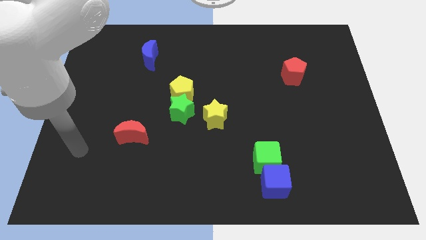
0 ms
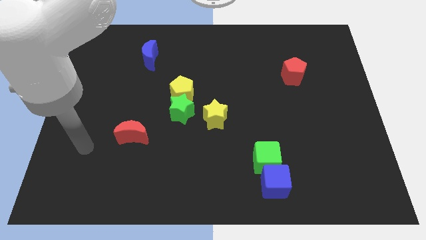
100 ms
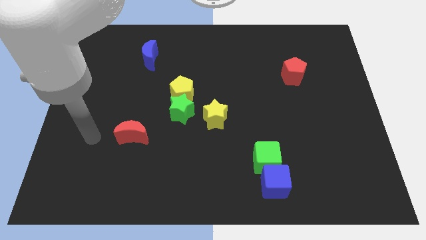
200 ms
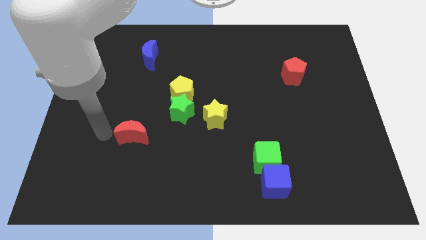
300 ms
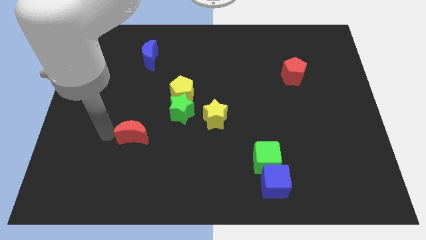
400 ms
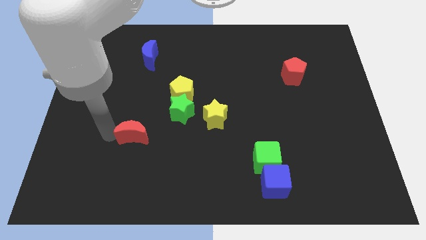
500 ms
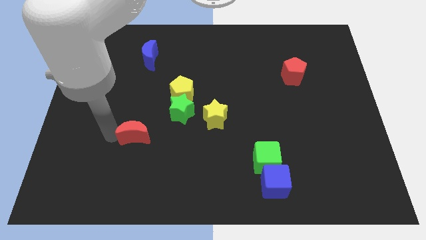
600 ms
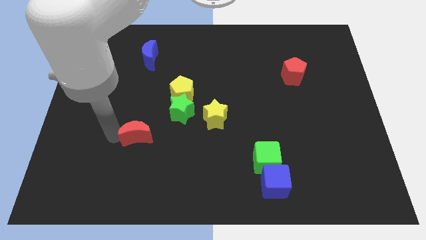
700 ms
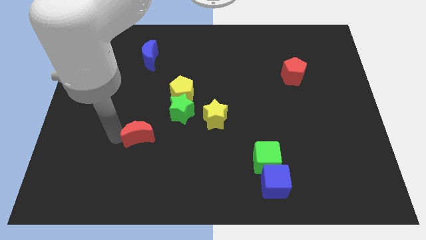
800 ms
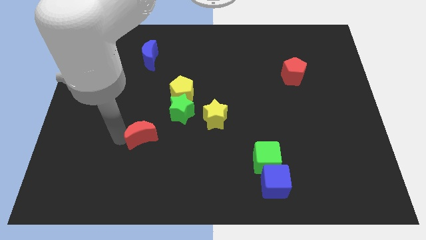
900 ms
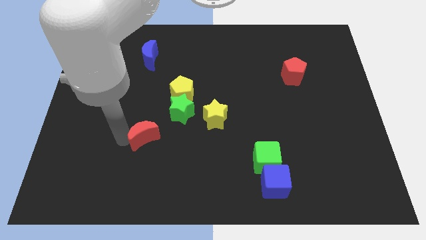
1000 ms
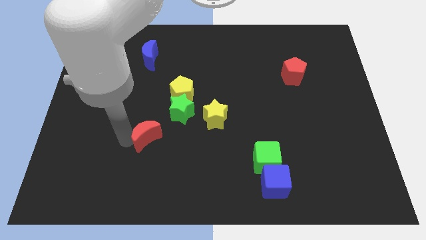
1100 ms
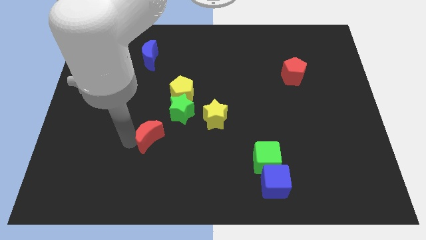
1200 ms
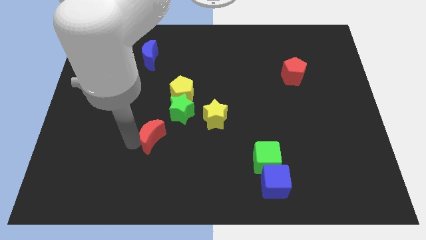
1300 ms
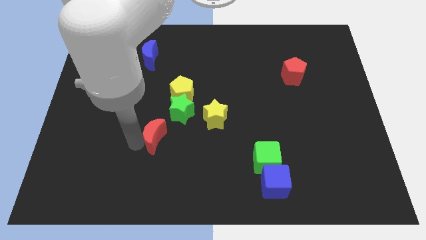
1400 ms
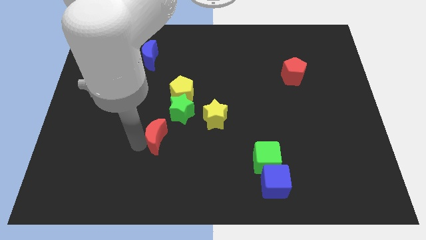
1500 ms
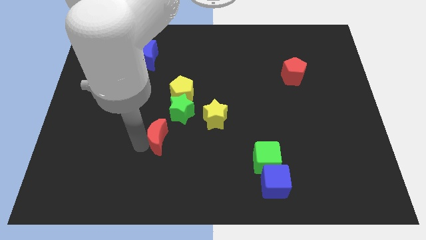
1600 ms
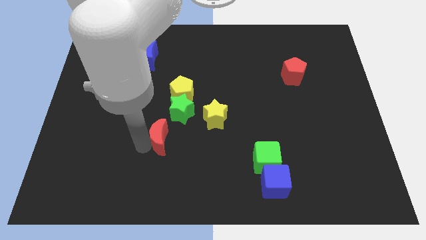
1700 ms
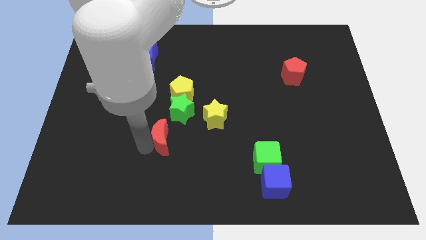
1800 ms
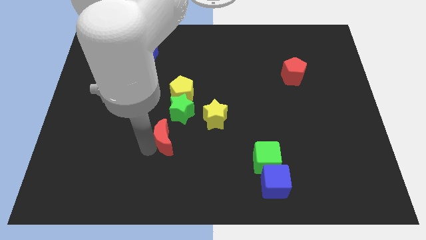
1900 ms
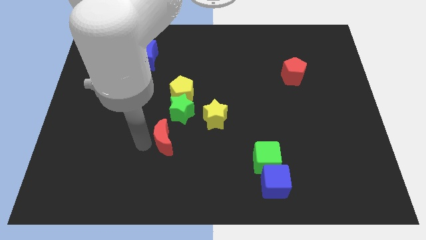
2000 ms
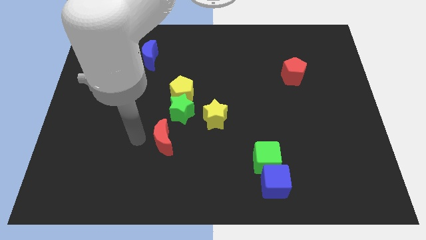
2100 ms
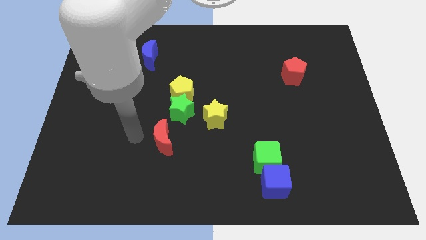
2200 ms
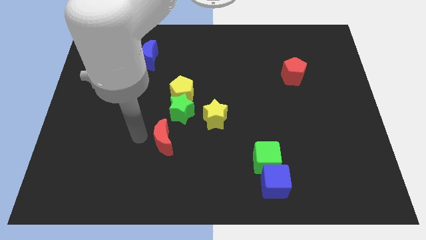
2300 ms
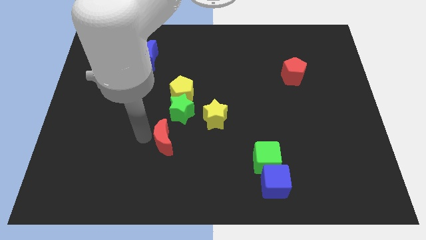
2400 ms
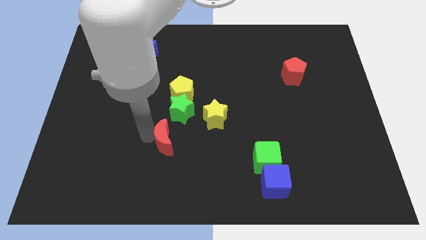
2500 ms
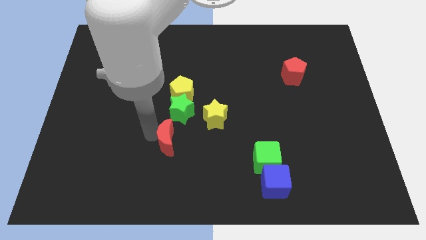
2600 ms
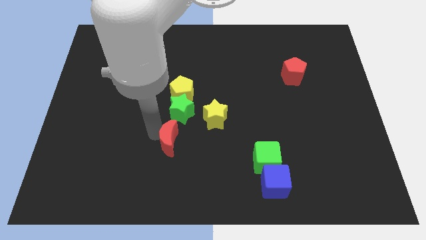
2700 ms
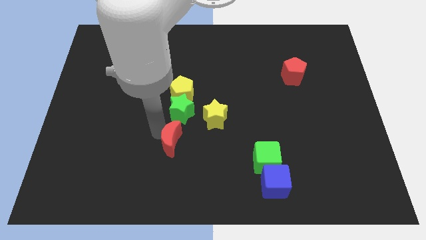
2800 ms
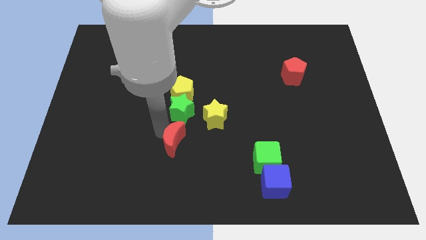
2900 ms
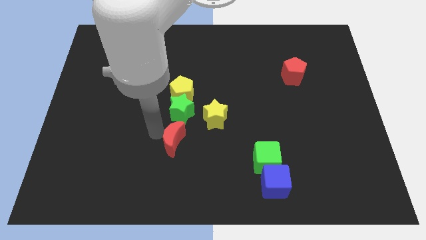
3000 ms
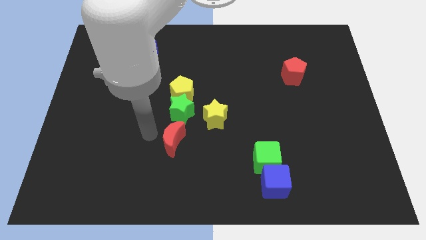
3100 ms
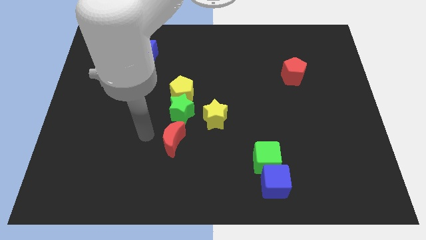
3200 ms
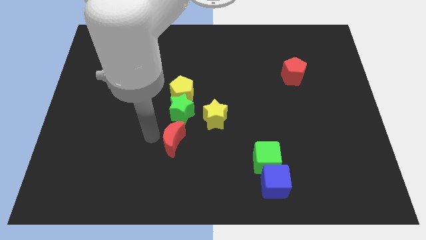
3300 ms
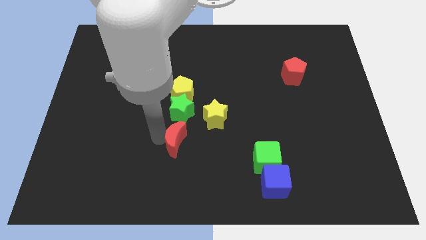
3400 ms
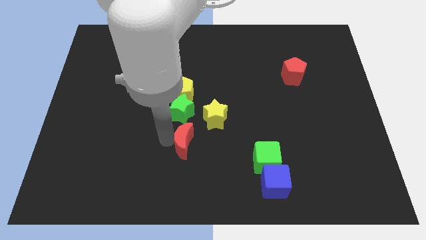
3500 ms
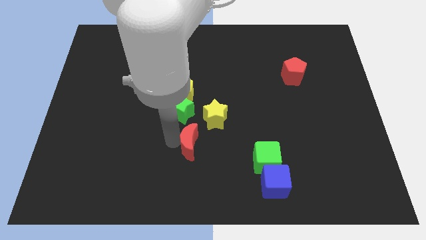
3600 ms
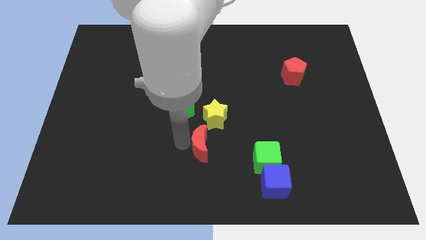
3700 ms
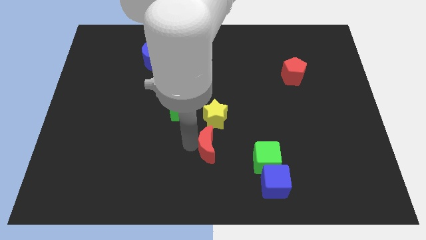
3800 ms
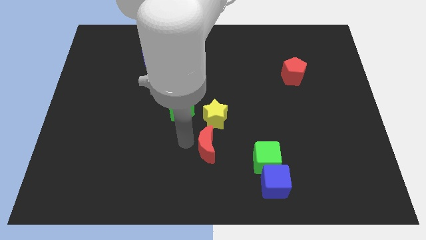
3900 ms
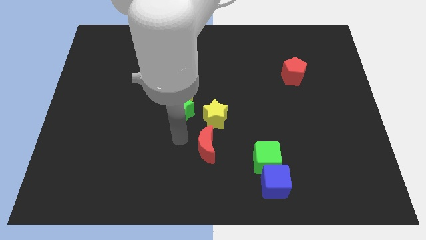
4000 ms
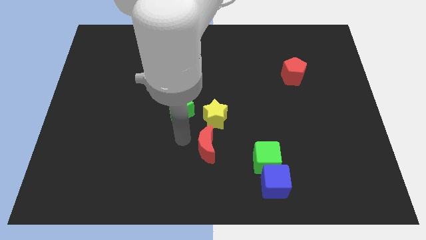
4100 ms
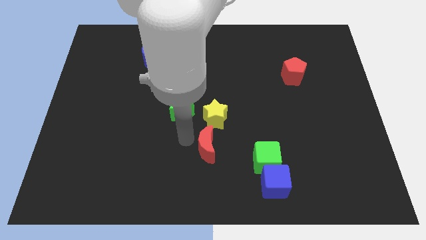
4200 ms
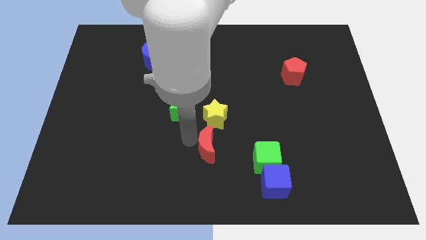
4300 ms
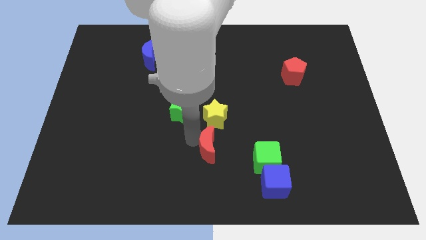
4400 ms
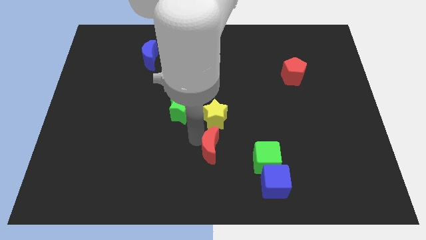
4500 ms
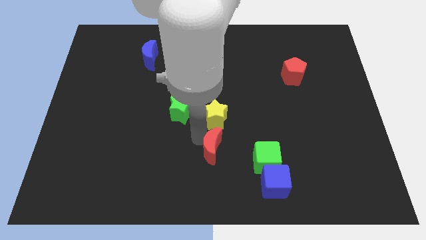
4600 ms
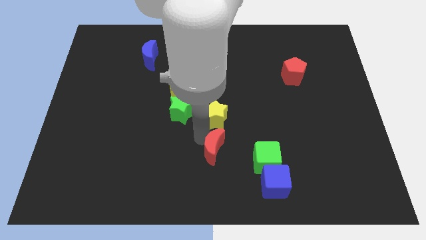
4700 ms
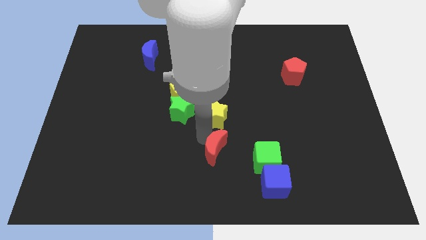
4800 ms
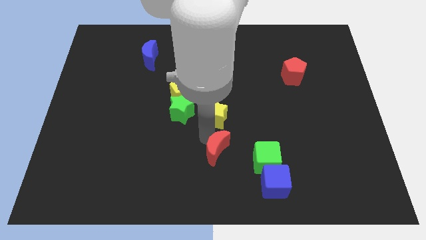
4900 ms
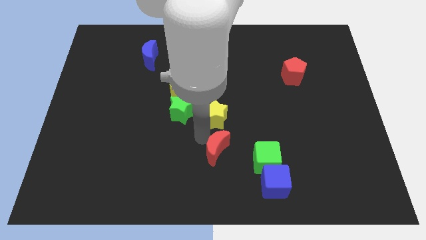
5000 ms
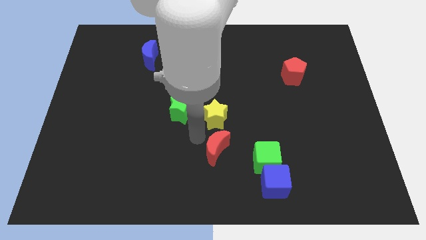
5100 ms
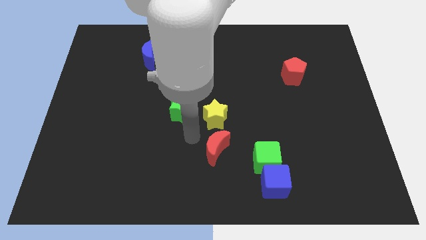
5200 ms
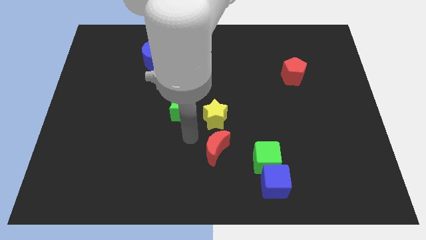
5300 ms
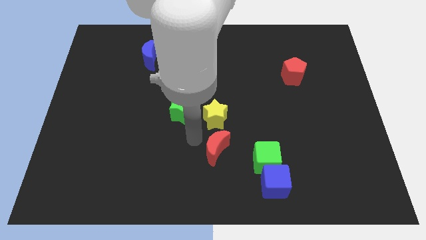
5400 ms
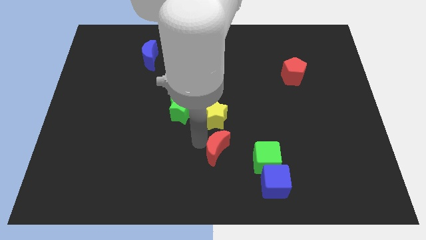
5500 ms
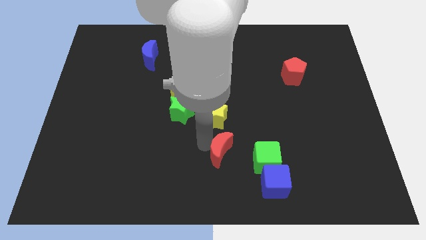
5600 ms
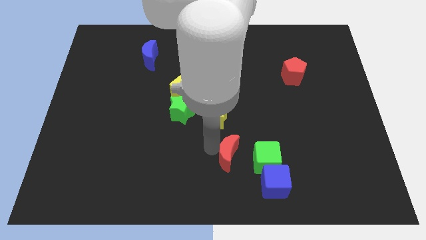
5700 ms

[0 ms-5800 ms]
slide the red moon diagonally up and to the left of the blue cube

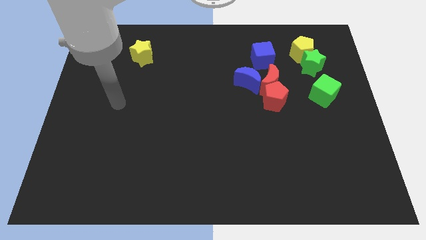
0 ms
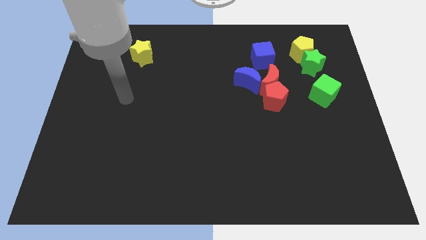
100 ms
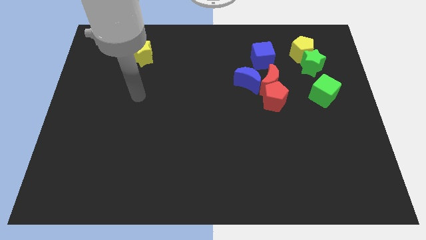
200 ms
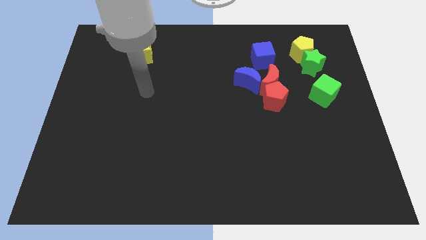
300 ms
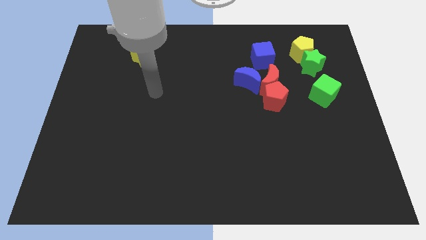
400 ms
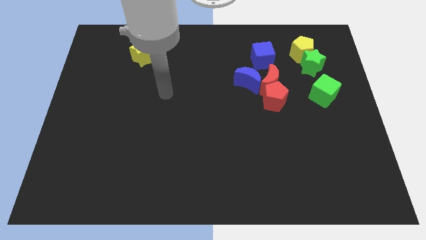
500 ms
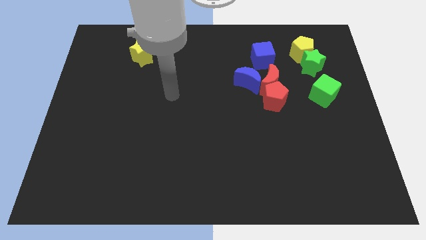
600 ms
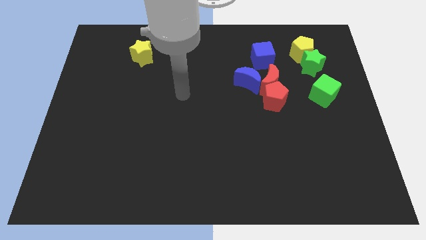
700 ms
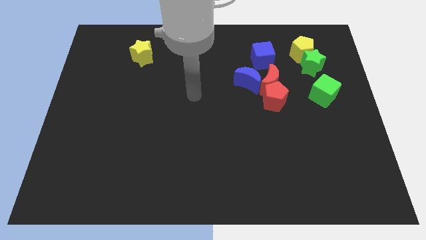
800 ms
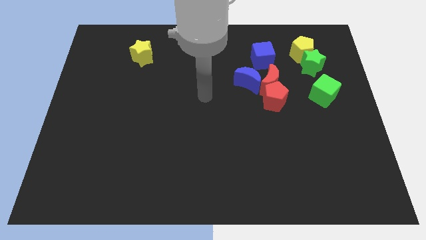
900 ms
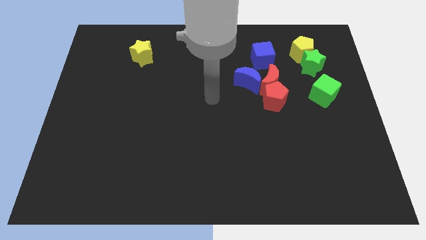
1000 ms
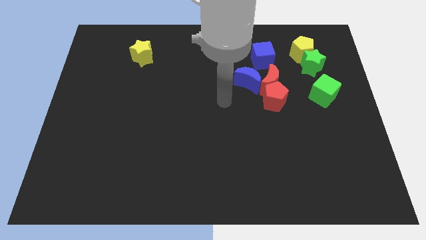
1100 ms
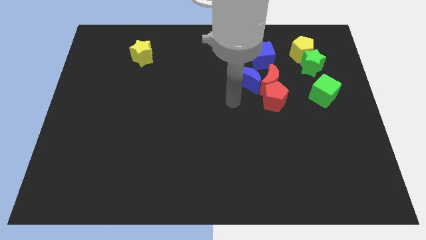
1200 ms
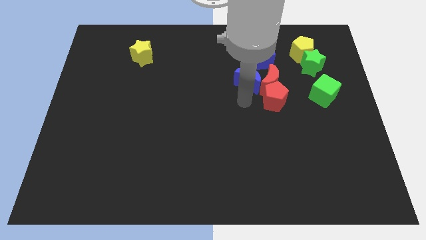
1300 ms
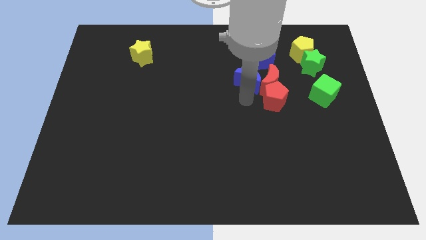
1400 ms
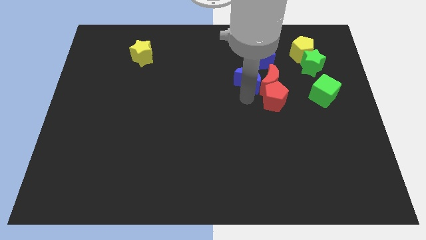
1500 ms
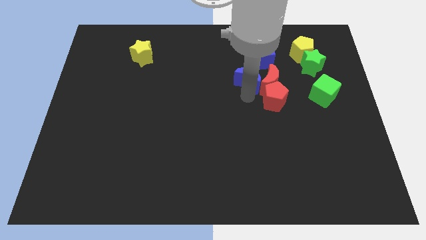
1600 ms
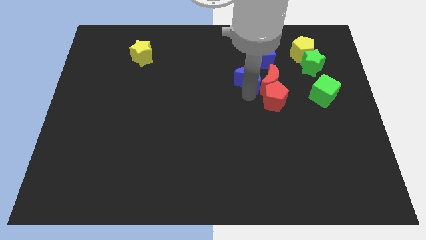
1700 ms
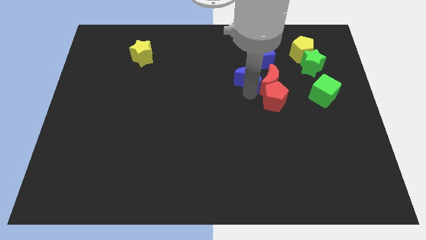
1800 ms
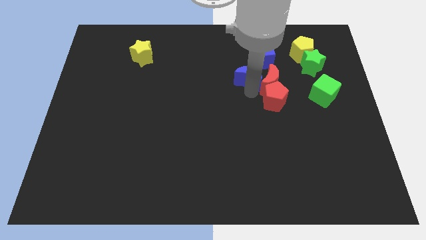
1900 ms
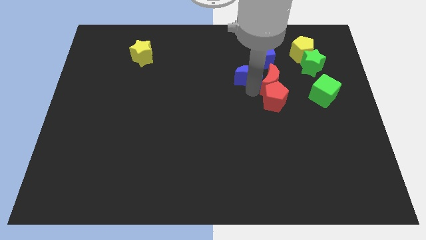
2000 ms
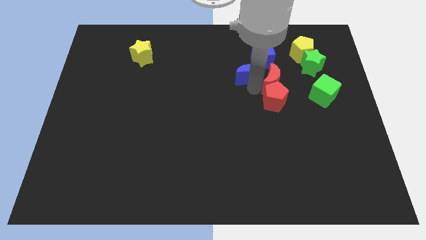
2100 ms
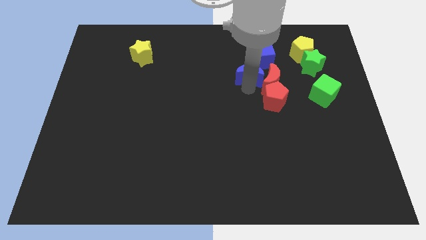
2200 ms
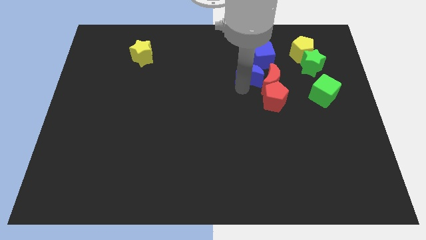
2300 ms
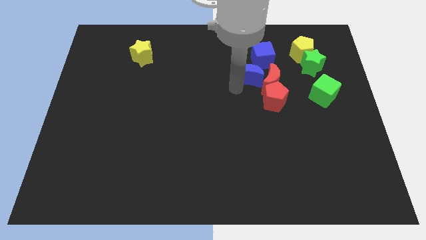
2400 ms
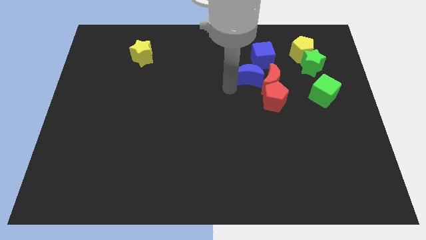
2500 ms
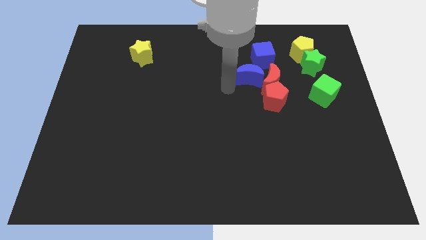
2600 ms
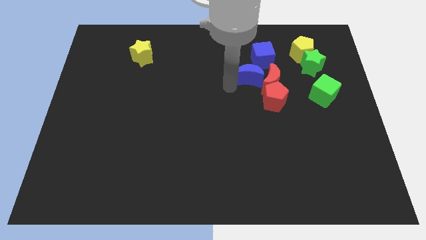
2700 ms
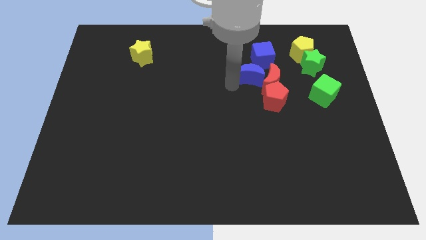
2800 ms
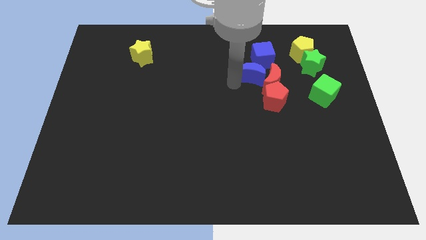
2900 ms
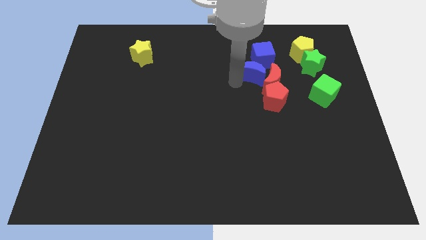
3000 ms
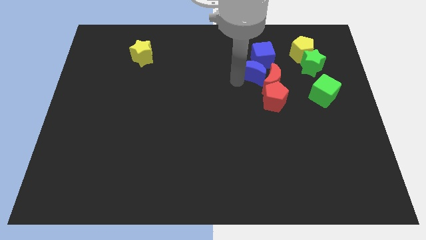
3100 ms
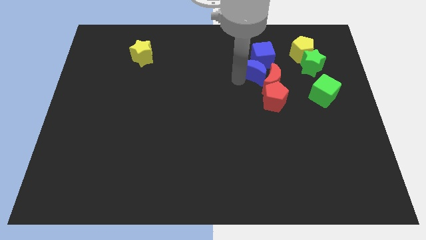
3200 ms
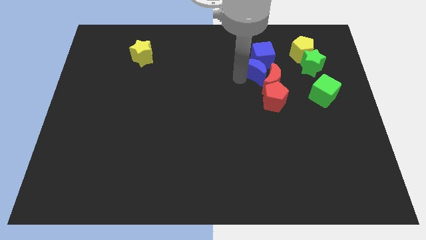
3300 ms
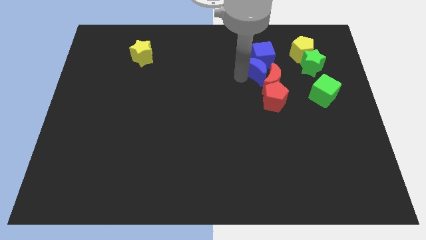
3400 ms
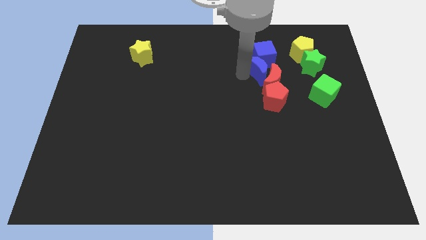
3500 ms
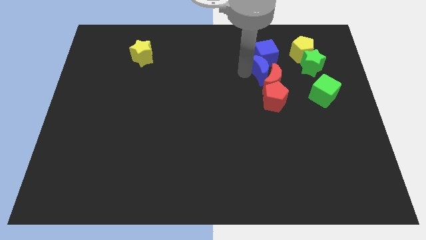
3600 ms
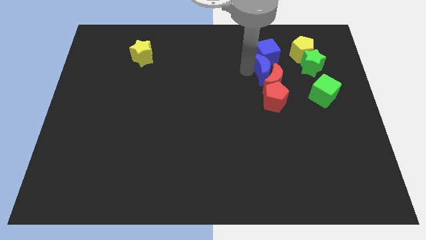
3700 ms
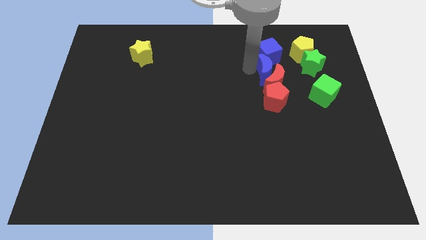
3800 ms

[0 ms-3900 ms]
put the blue moon to the top right of the red moon
